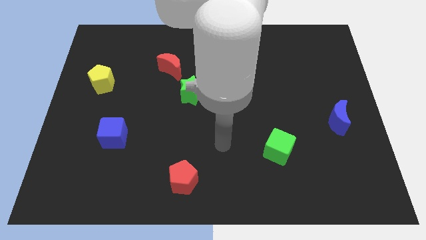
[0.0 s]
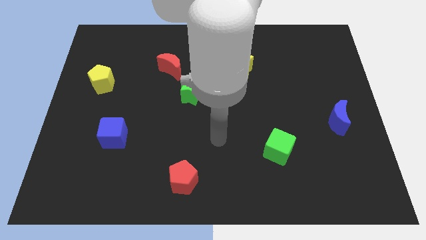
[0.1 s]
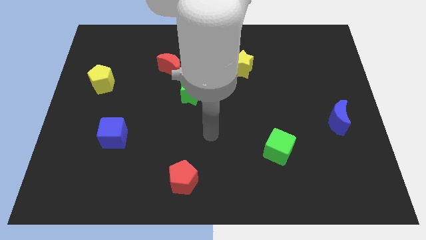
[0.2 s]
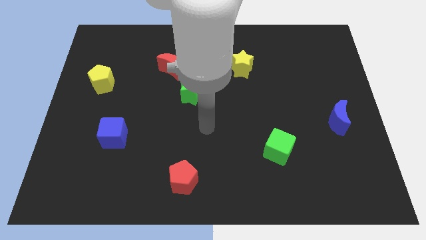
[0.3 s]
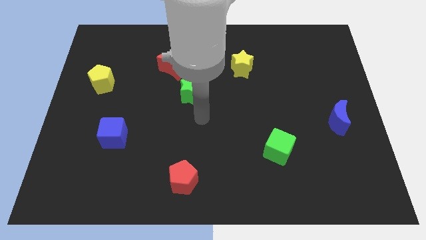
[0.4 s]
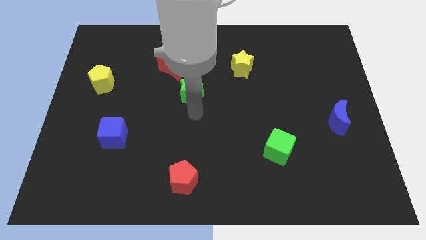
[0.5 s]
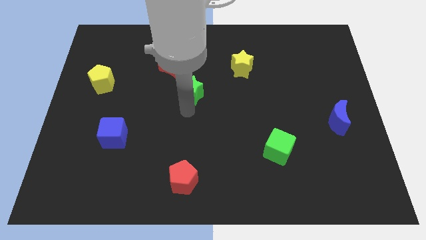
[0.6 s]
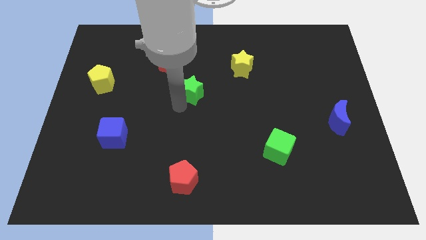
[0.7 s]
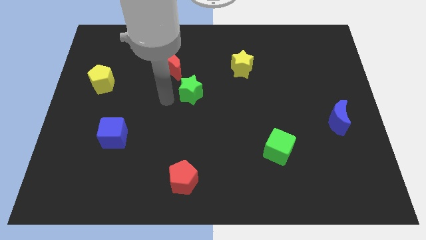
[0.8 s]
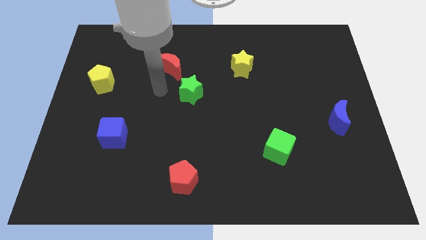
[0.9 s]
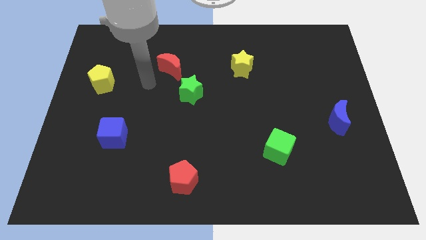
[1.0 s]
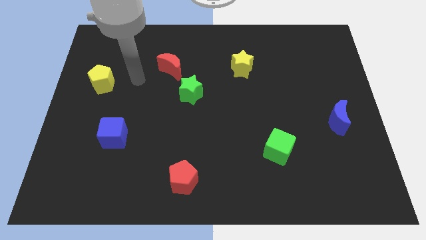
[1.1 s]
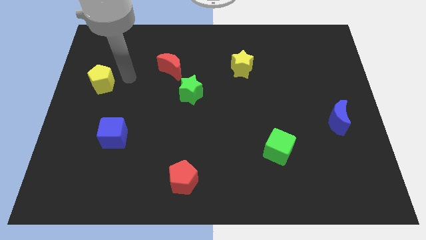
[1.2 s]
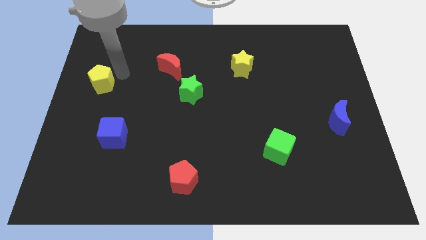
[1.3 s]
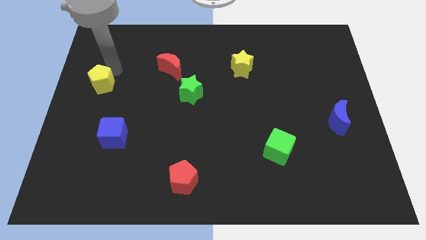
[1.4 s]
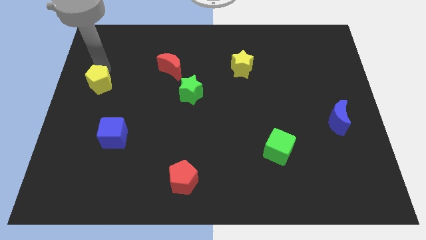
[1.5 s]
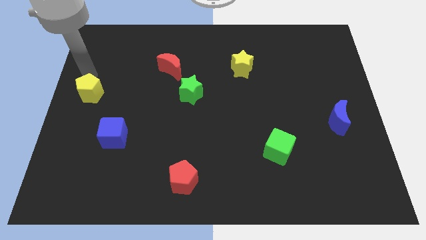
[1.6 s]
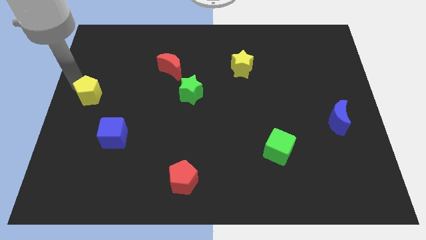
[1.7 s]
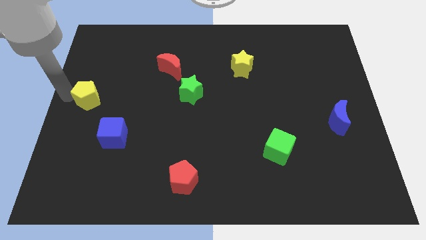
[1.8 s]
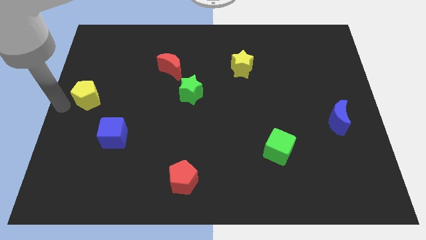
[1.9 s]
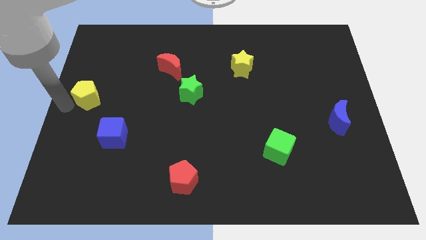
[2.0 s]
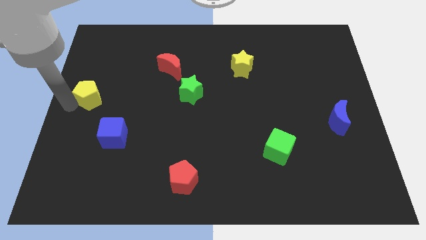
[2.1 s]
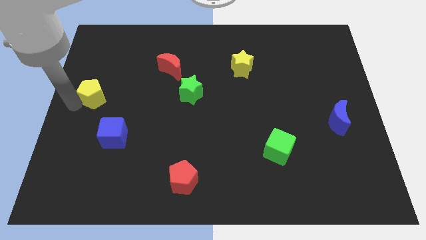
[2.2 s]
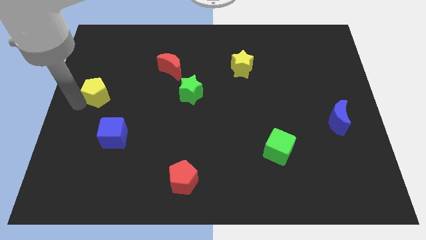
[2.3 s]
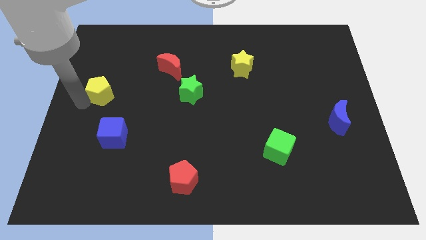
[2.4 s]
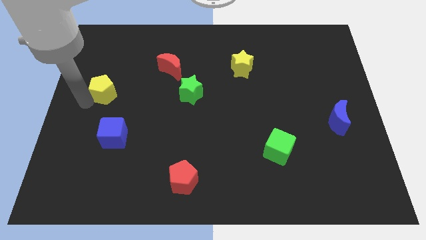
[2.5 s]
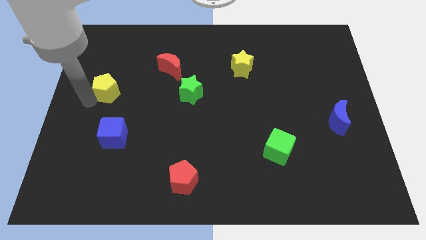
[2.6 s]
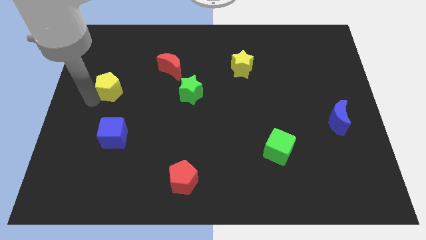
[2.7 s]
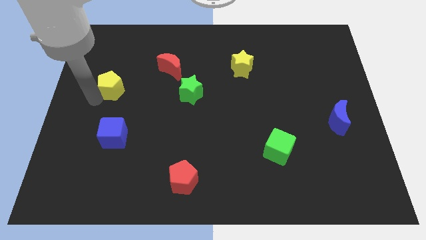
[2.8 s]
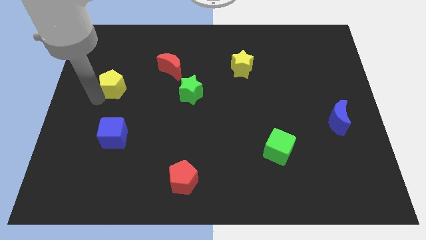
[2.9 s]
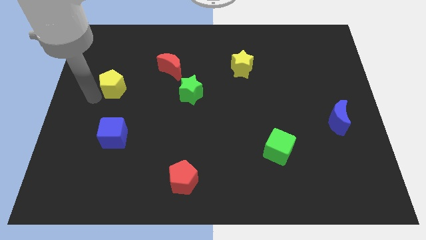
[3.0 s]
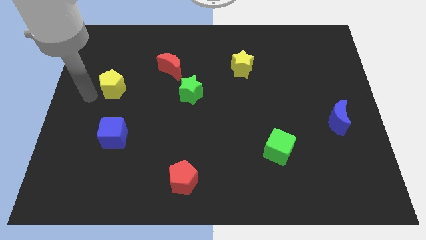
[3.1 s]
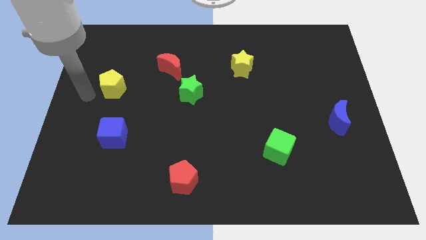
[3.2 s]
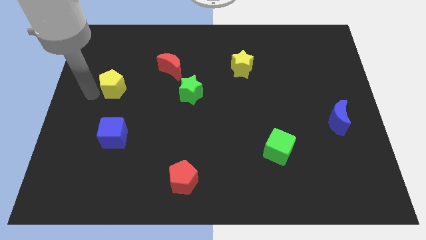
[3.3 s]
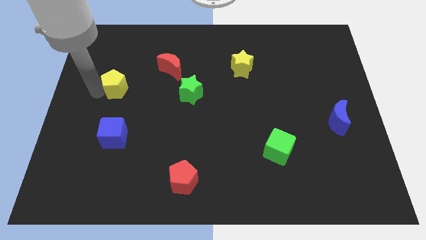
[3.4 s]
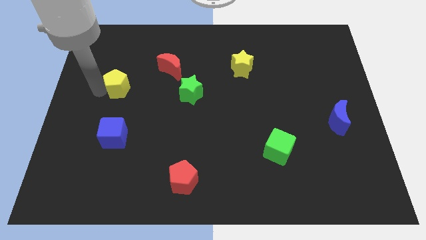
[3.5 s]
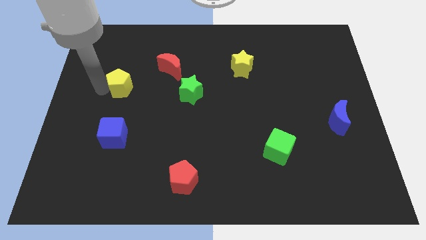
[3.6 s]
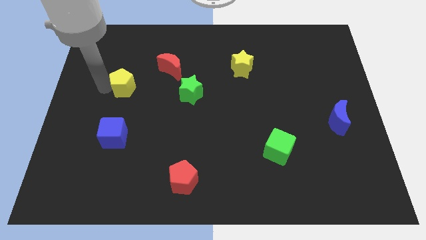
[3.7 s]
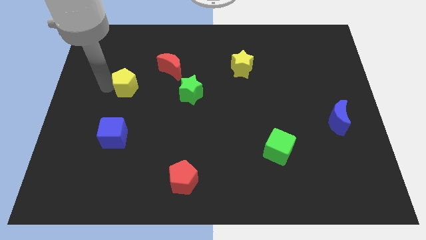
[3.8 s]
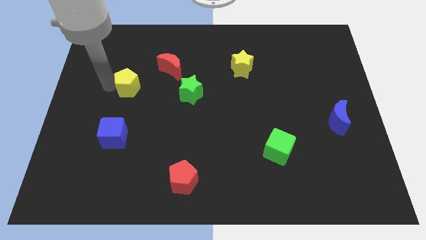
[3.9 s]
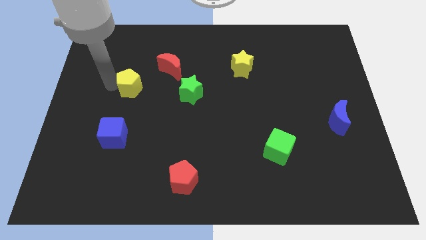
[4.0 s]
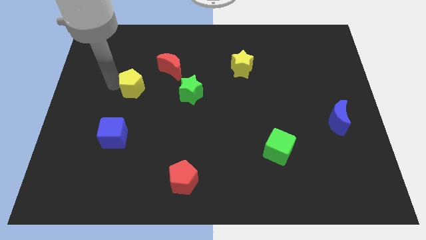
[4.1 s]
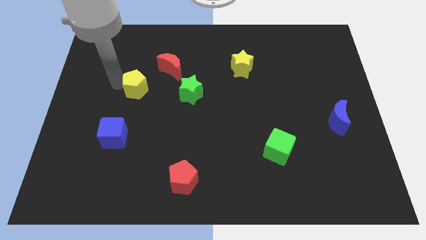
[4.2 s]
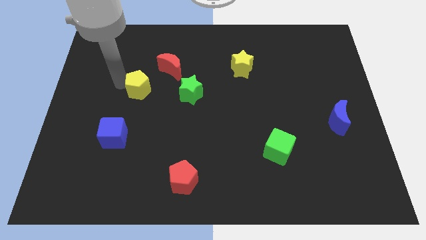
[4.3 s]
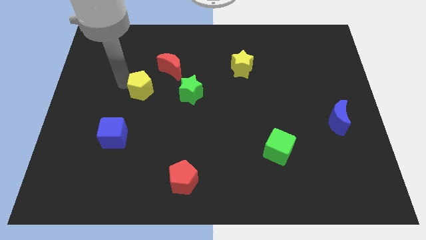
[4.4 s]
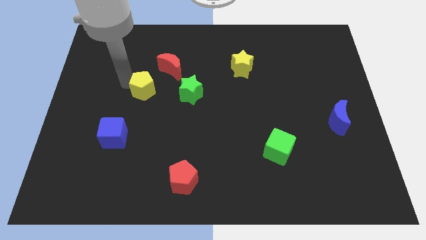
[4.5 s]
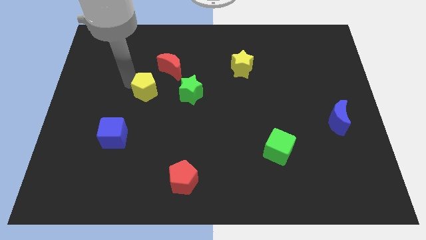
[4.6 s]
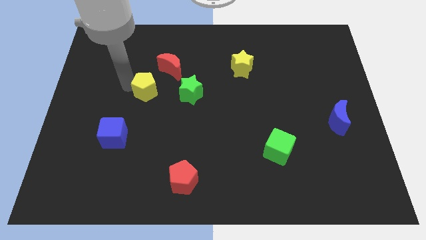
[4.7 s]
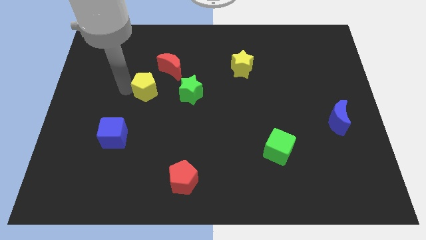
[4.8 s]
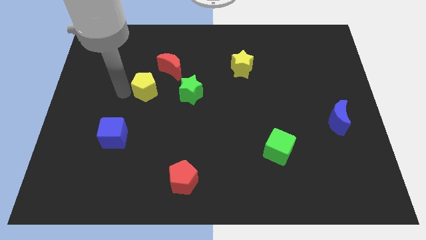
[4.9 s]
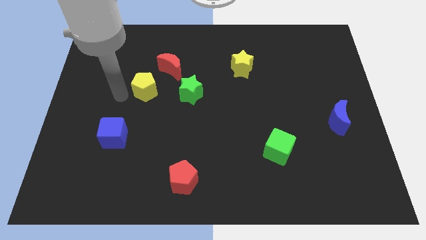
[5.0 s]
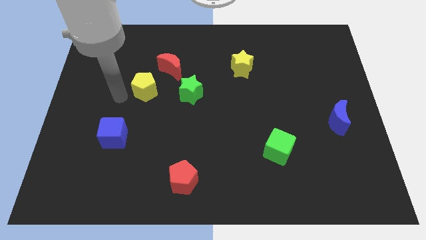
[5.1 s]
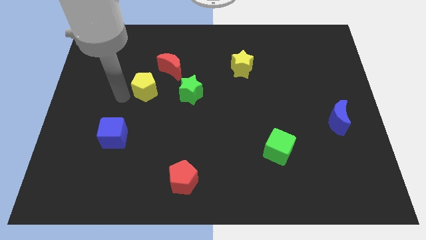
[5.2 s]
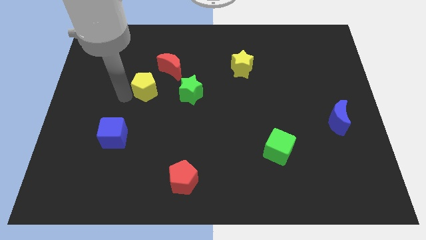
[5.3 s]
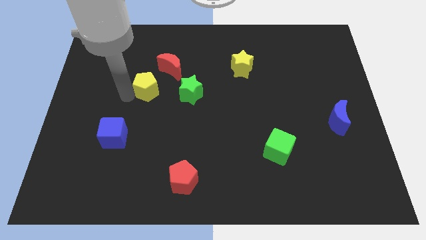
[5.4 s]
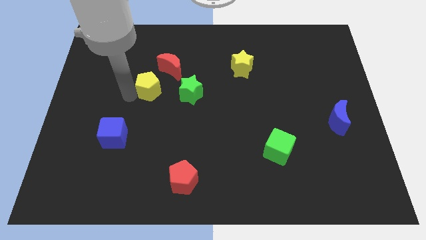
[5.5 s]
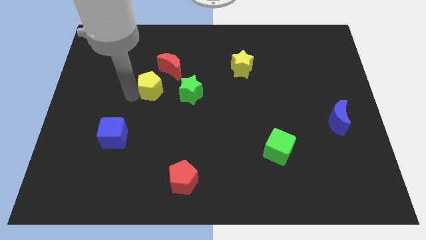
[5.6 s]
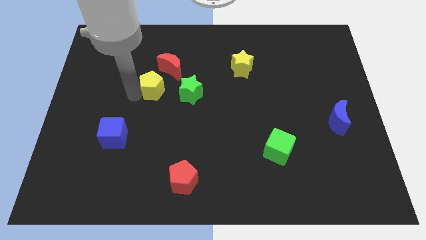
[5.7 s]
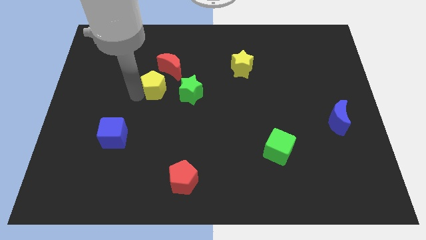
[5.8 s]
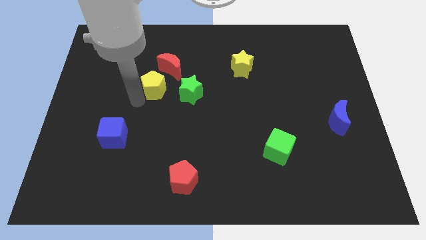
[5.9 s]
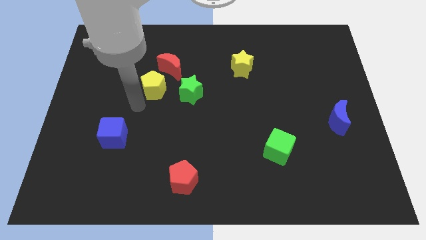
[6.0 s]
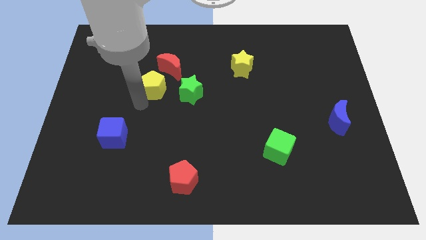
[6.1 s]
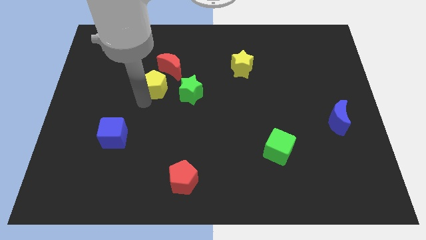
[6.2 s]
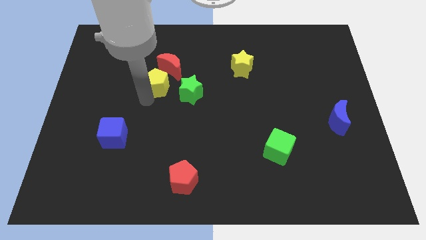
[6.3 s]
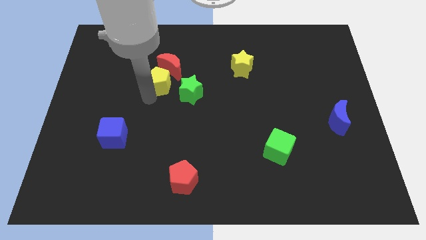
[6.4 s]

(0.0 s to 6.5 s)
slide the yellow pentagon towards the red moon
